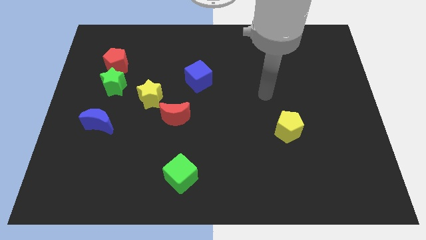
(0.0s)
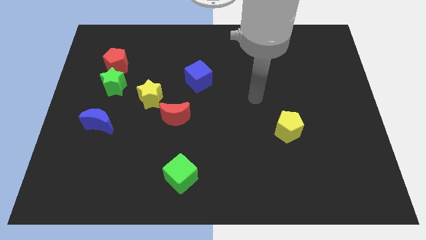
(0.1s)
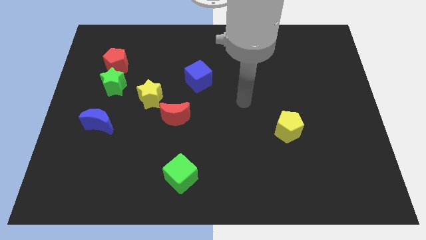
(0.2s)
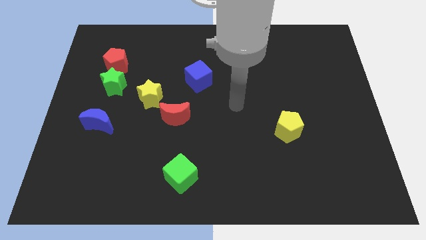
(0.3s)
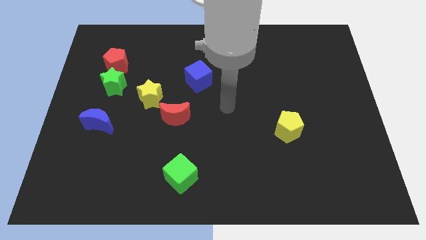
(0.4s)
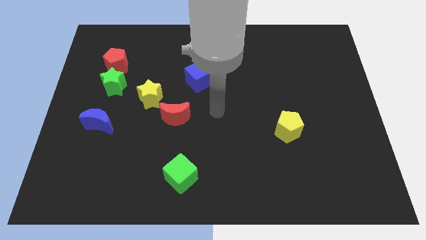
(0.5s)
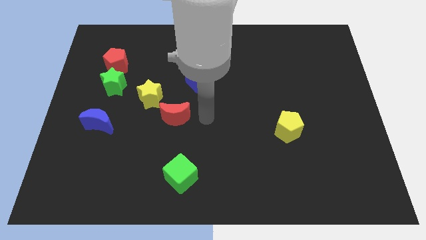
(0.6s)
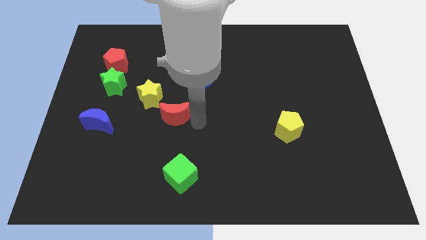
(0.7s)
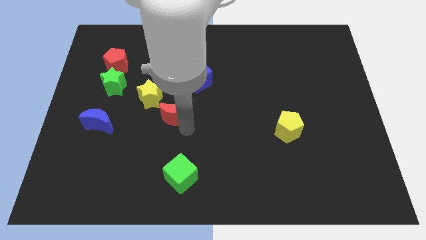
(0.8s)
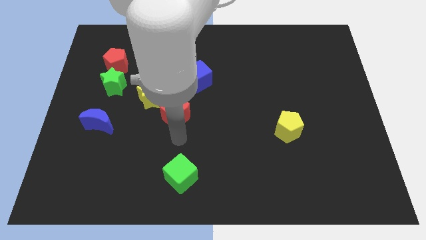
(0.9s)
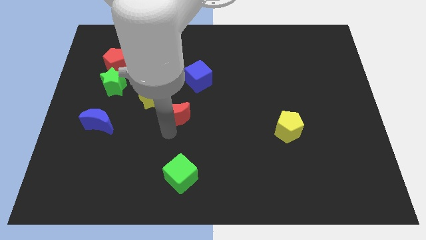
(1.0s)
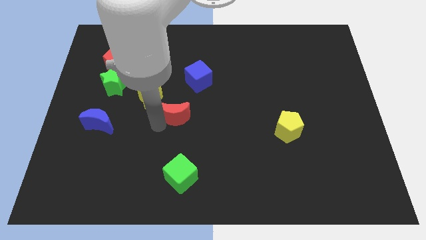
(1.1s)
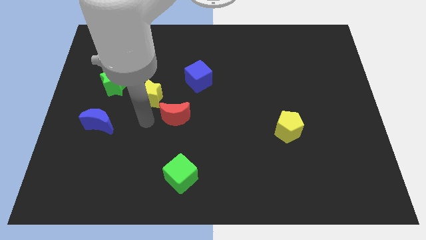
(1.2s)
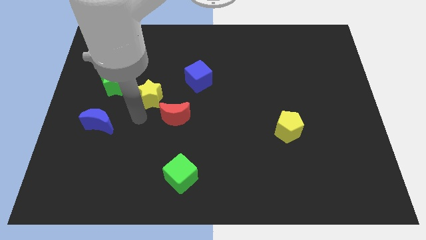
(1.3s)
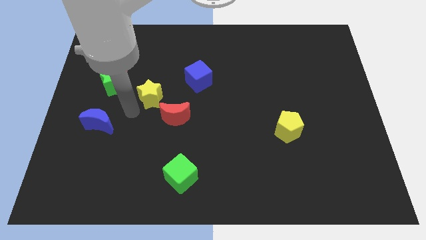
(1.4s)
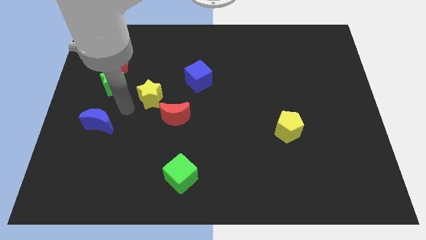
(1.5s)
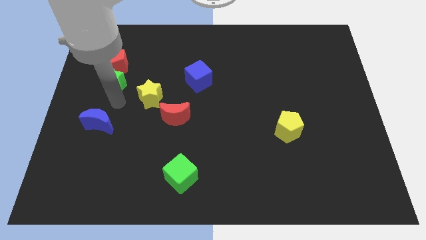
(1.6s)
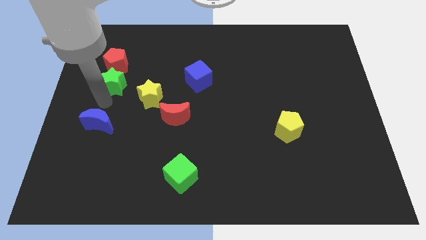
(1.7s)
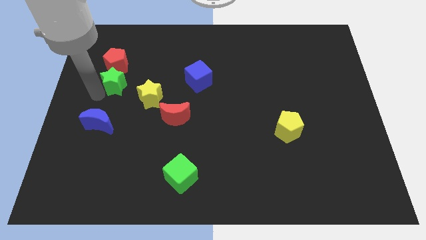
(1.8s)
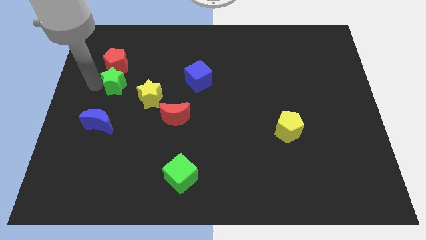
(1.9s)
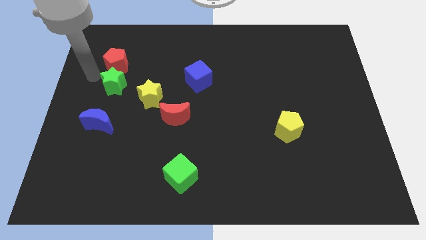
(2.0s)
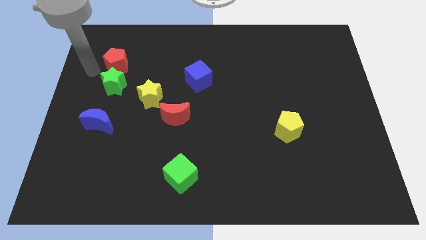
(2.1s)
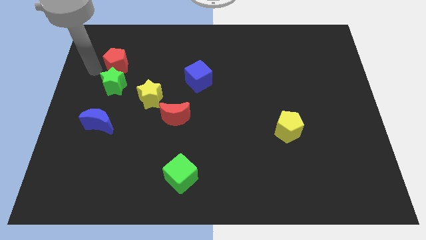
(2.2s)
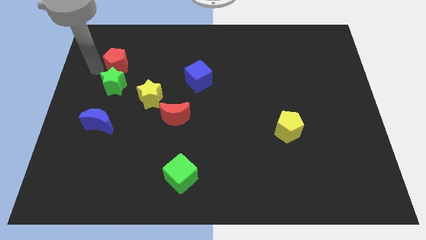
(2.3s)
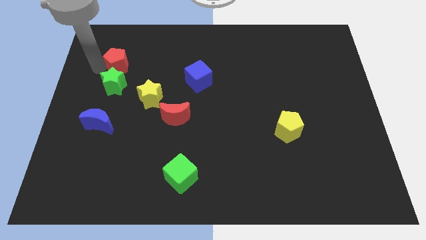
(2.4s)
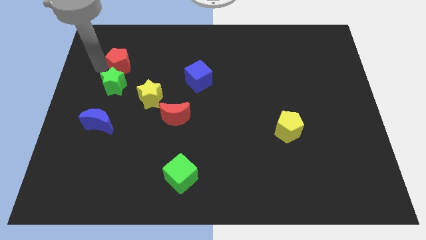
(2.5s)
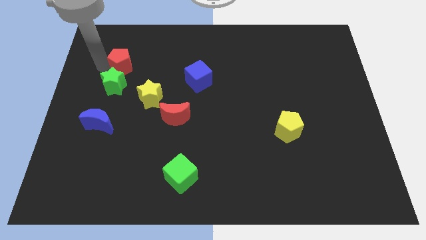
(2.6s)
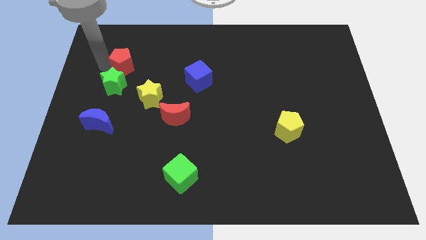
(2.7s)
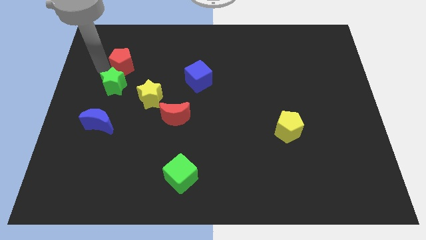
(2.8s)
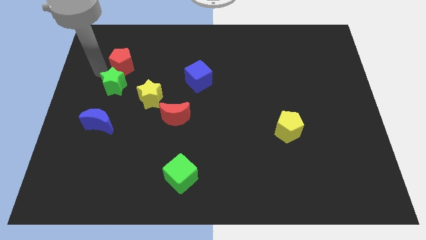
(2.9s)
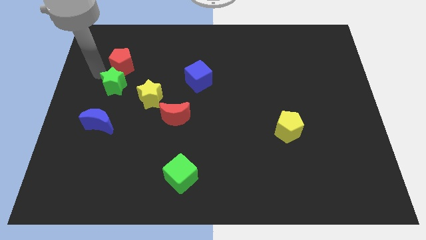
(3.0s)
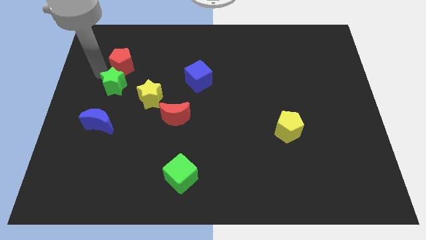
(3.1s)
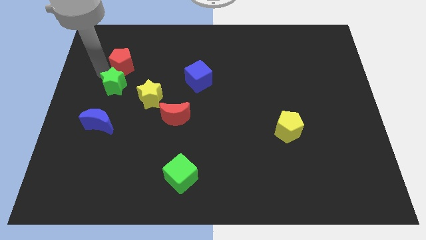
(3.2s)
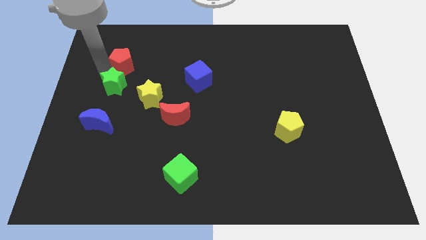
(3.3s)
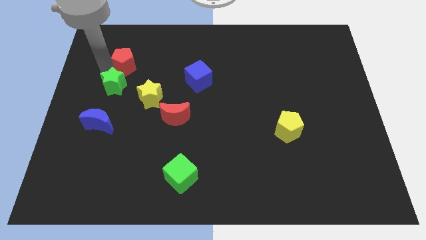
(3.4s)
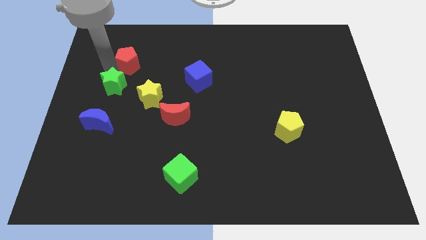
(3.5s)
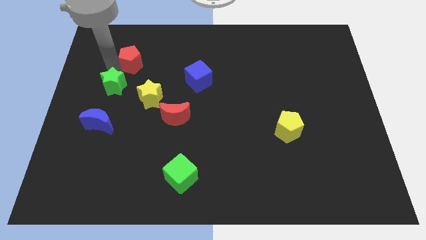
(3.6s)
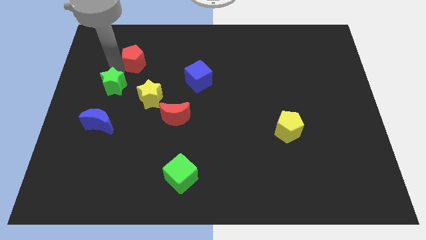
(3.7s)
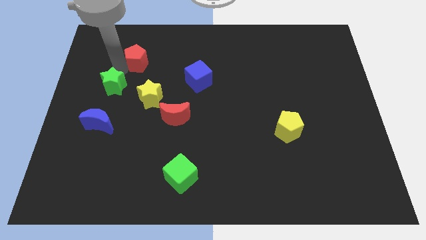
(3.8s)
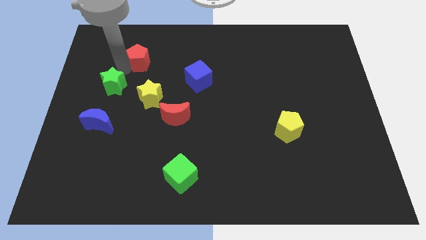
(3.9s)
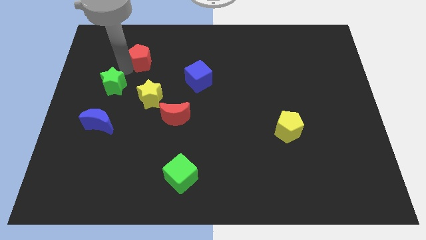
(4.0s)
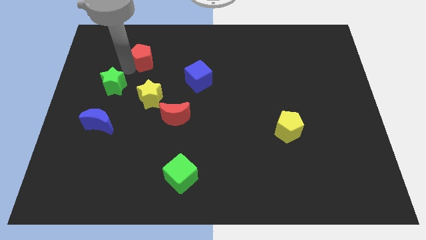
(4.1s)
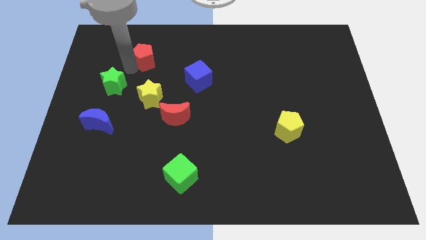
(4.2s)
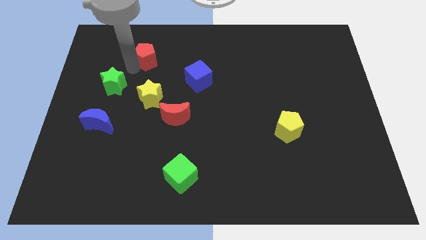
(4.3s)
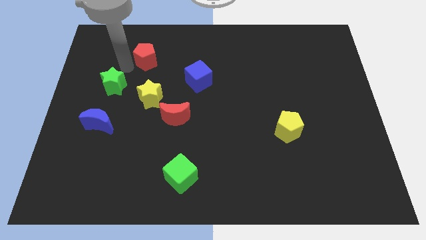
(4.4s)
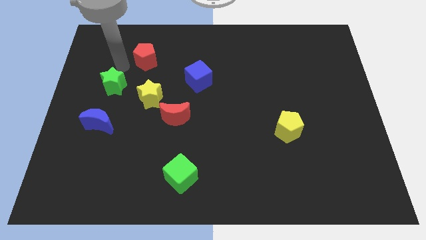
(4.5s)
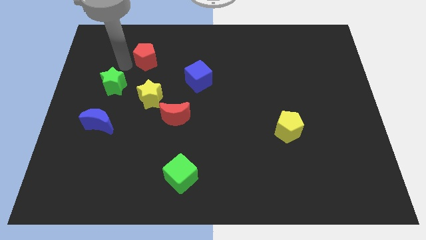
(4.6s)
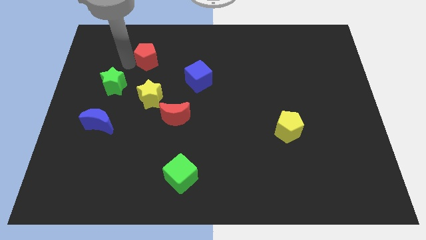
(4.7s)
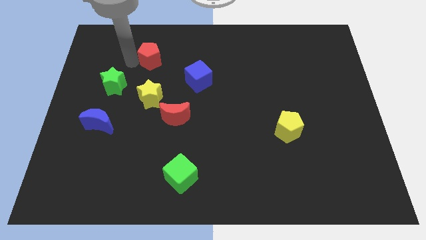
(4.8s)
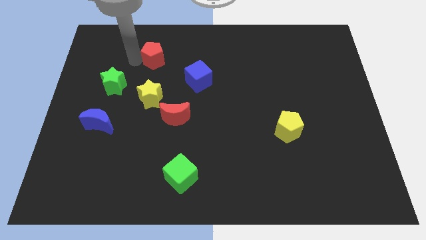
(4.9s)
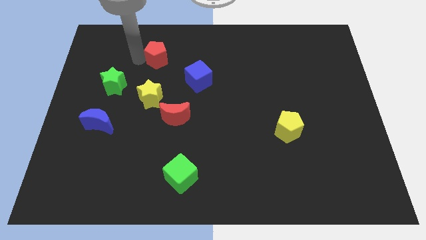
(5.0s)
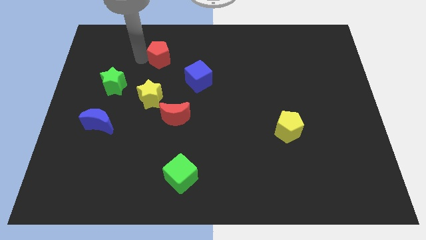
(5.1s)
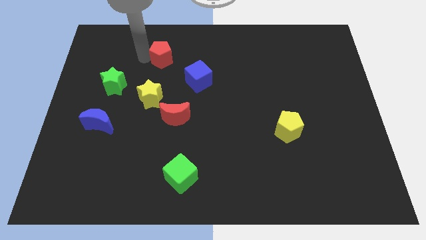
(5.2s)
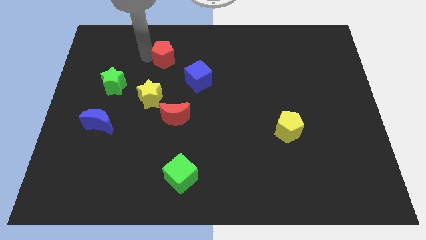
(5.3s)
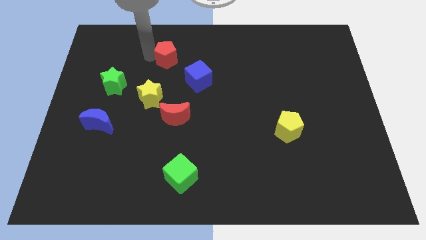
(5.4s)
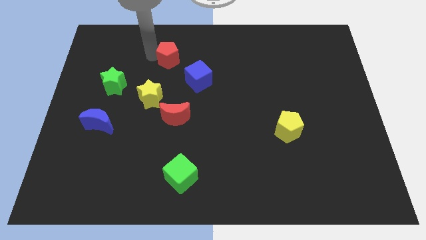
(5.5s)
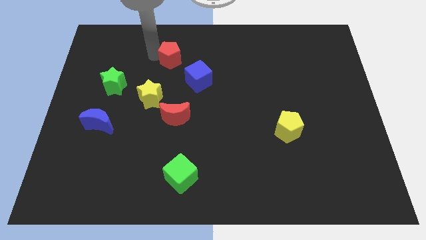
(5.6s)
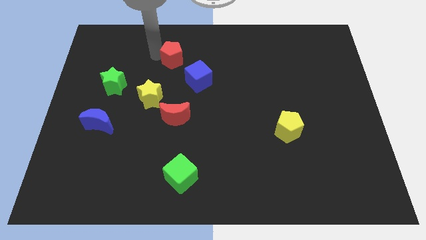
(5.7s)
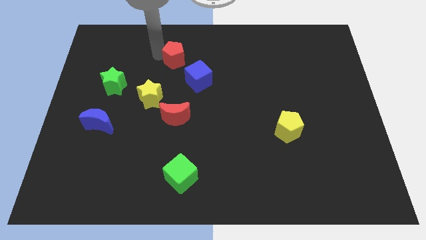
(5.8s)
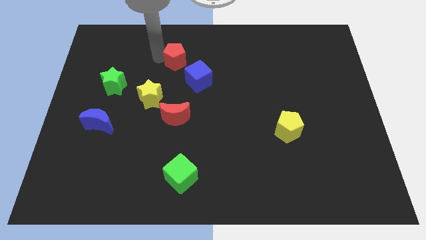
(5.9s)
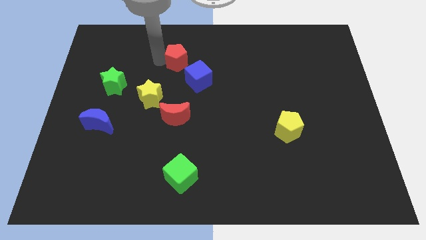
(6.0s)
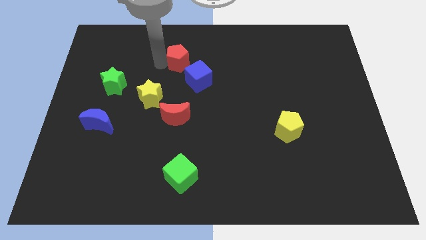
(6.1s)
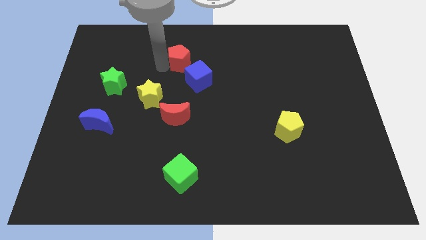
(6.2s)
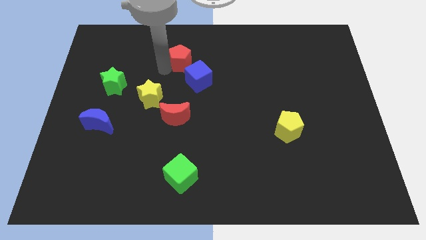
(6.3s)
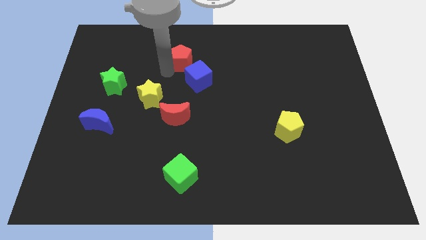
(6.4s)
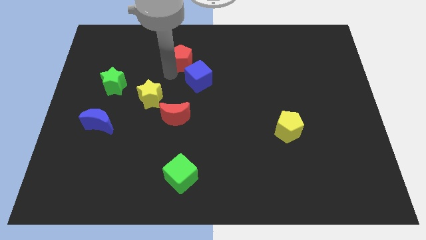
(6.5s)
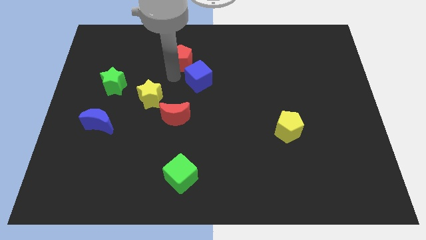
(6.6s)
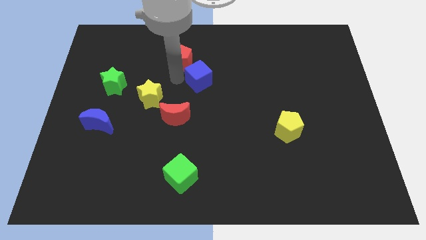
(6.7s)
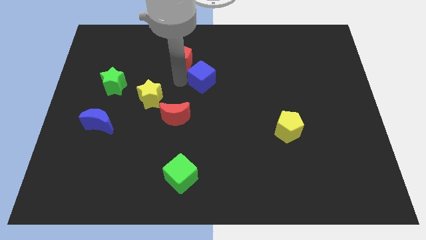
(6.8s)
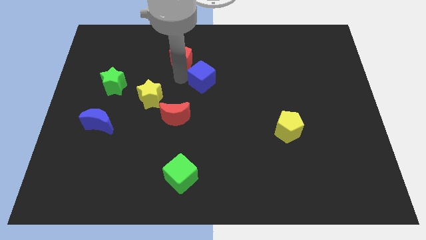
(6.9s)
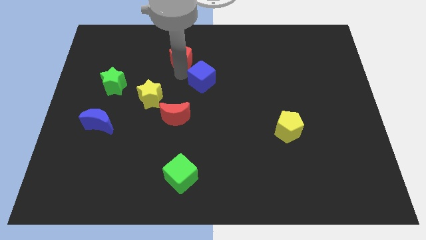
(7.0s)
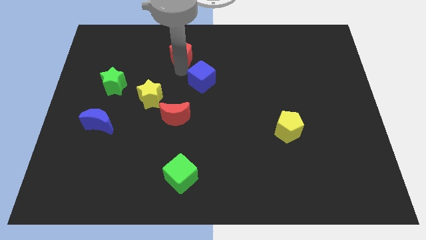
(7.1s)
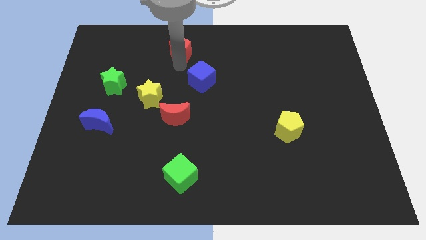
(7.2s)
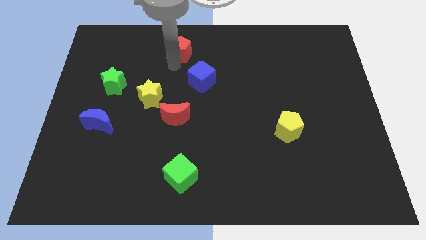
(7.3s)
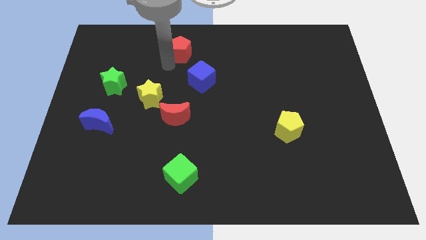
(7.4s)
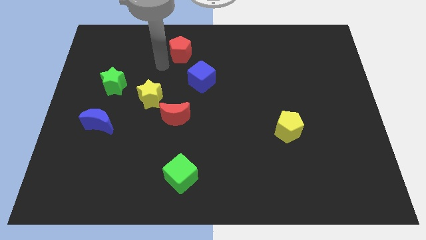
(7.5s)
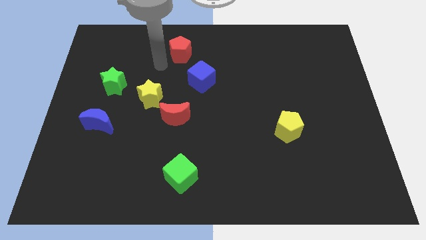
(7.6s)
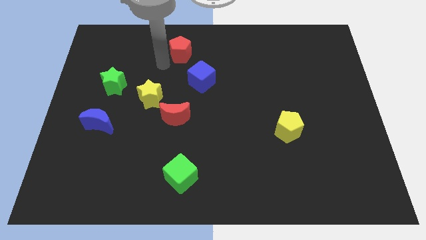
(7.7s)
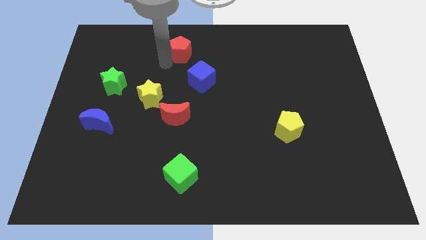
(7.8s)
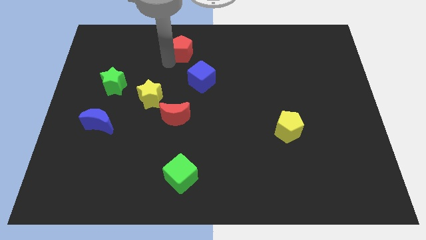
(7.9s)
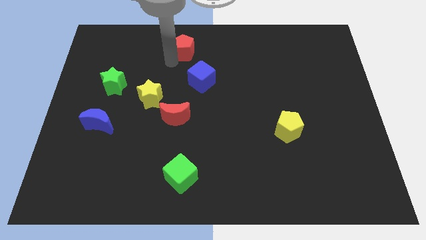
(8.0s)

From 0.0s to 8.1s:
slide the red pentagon to the top side
